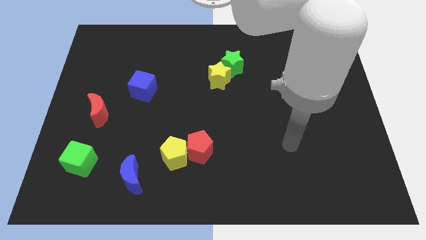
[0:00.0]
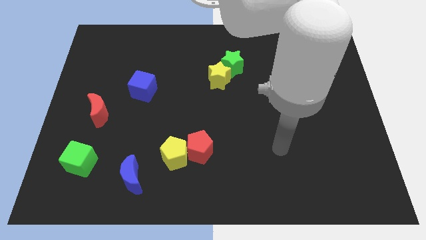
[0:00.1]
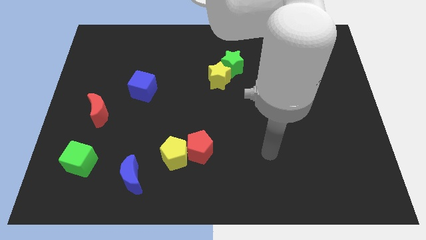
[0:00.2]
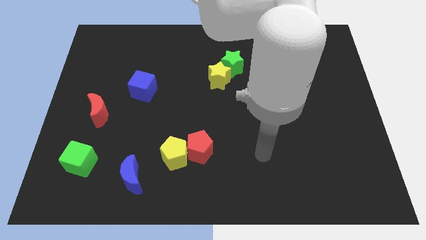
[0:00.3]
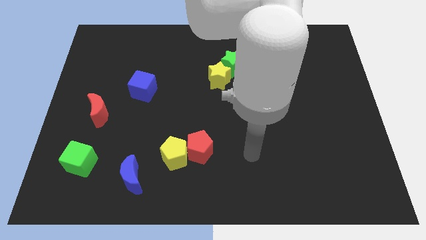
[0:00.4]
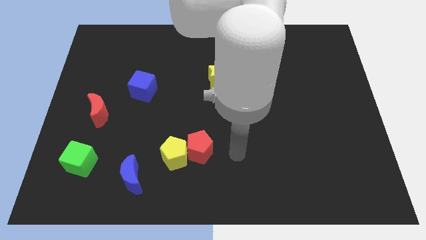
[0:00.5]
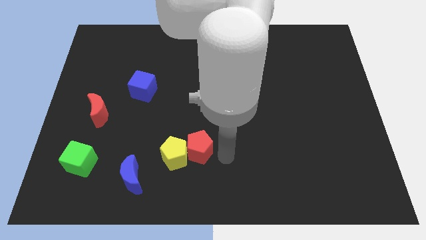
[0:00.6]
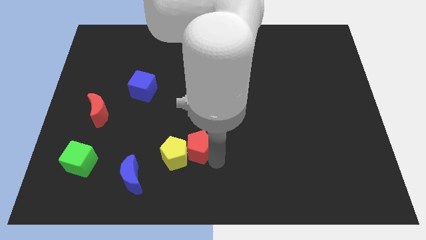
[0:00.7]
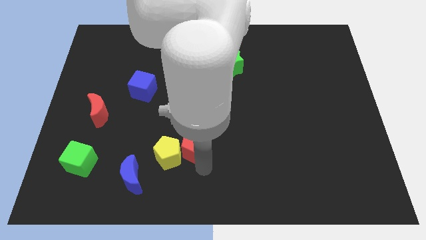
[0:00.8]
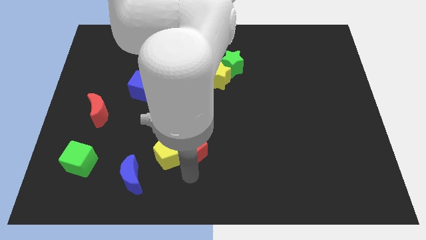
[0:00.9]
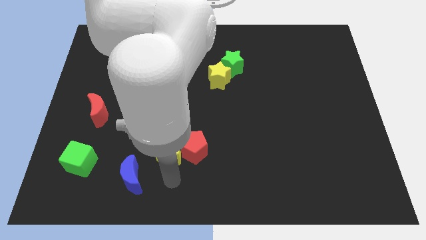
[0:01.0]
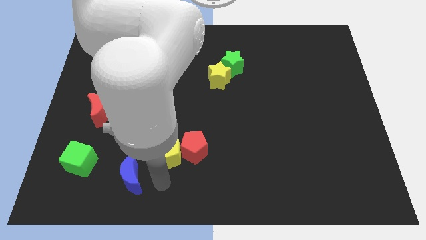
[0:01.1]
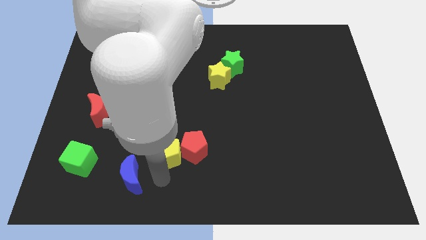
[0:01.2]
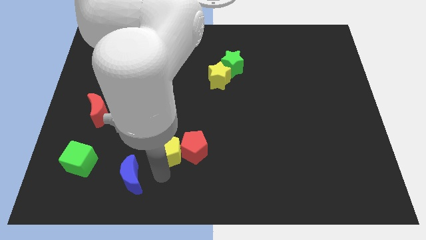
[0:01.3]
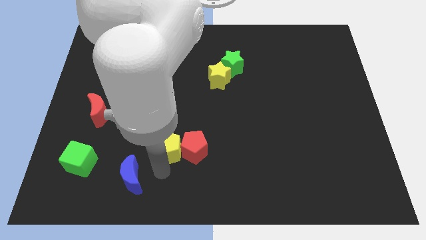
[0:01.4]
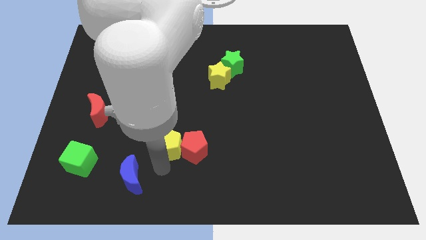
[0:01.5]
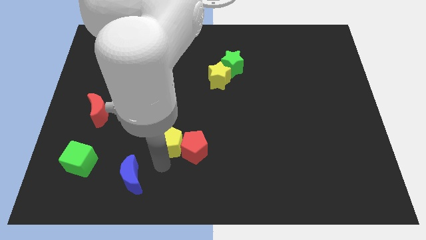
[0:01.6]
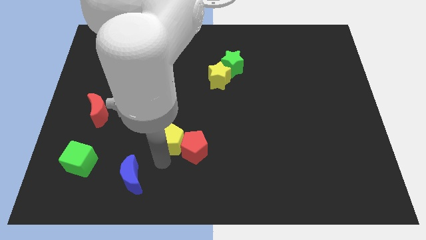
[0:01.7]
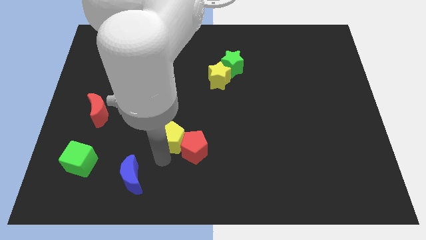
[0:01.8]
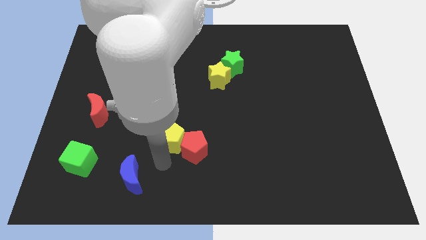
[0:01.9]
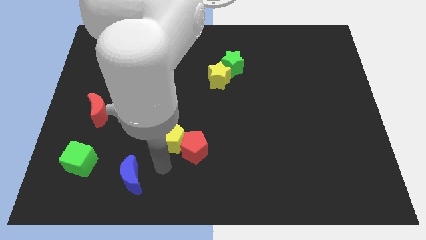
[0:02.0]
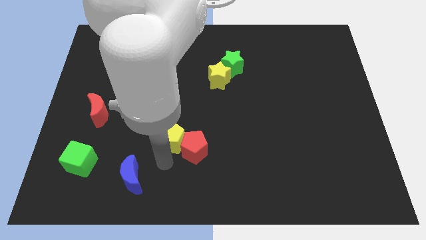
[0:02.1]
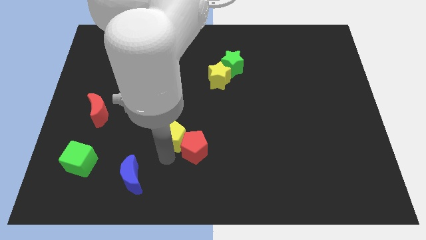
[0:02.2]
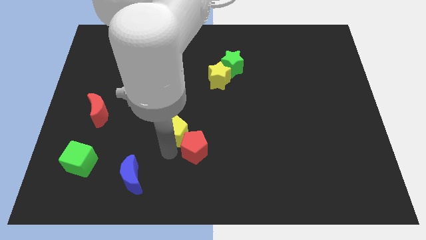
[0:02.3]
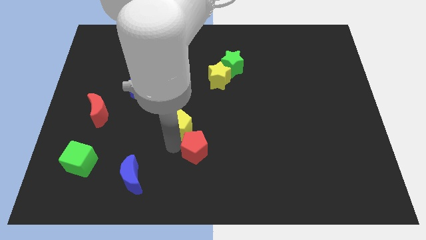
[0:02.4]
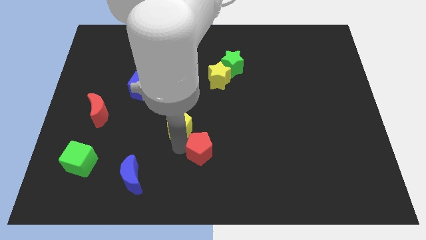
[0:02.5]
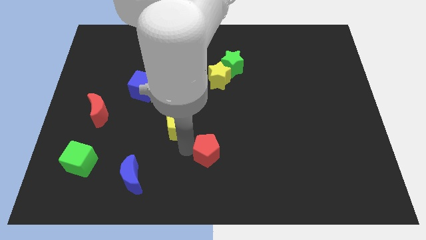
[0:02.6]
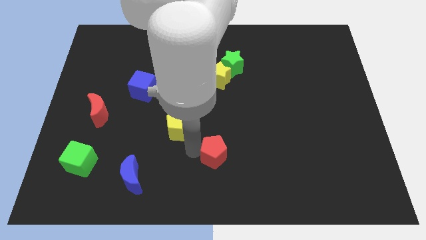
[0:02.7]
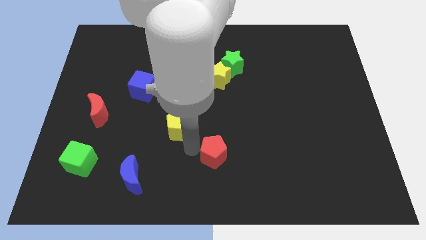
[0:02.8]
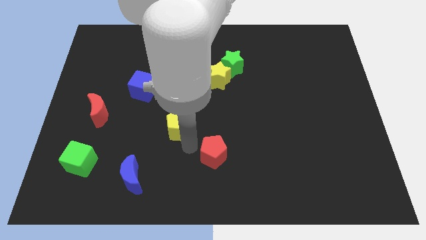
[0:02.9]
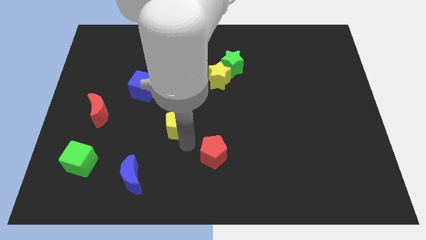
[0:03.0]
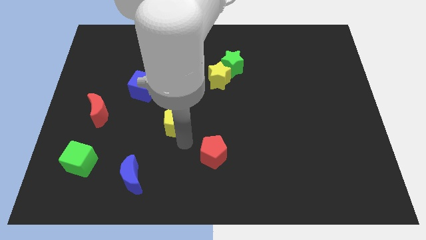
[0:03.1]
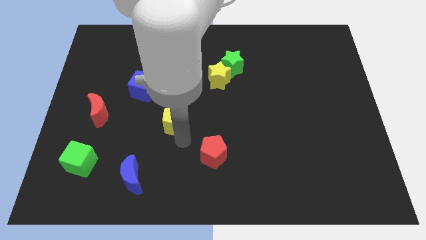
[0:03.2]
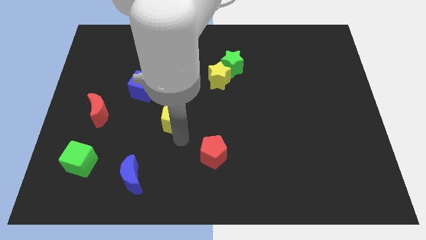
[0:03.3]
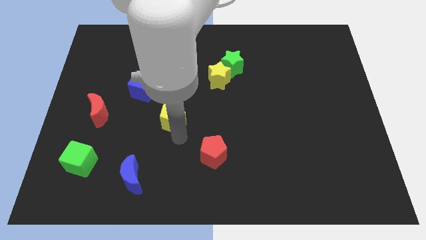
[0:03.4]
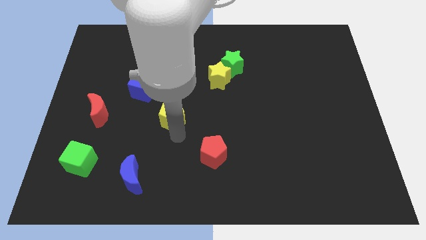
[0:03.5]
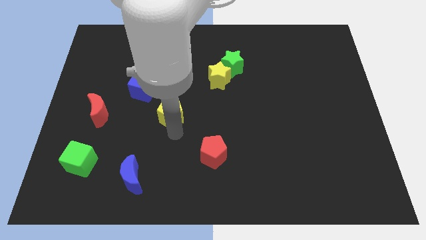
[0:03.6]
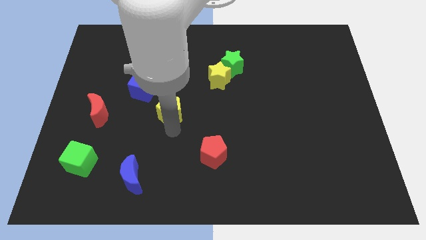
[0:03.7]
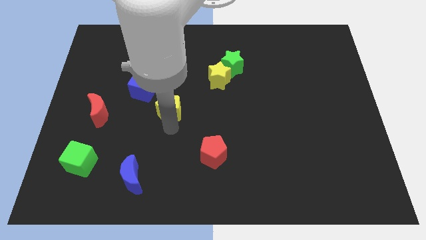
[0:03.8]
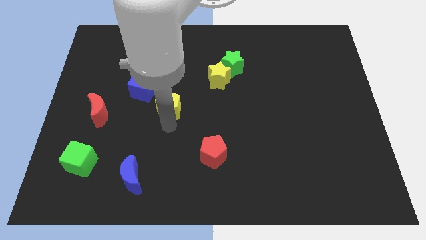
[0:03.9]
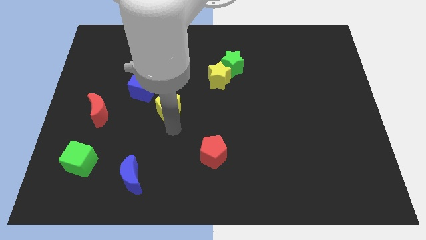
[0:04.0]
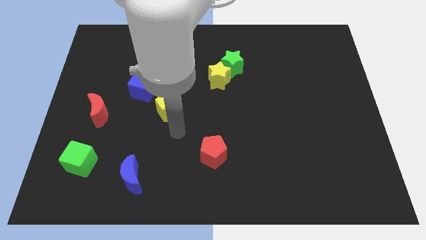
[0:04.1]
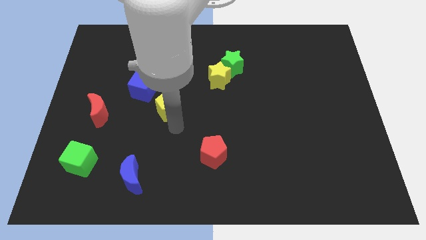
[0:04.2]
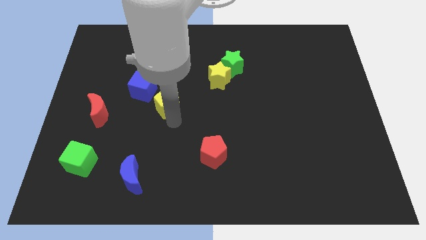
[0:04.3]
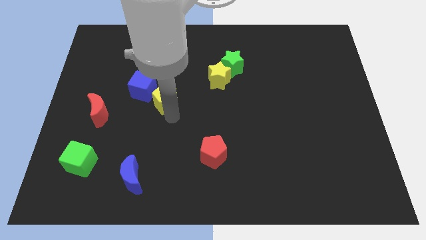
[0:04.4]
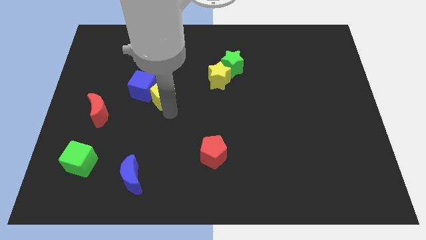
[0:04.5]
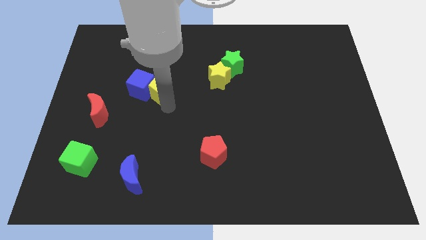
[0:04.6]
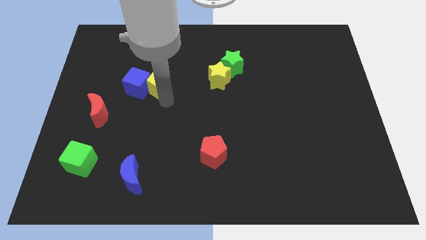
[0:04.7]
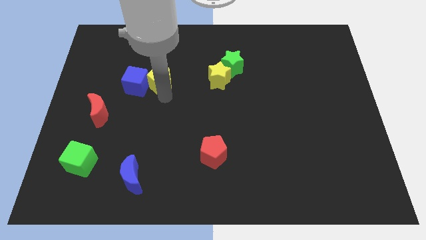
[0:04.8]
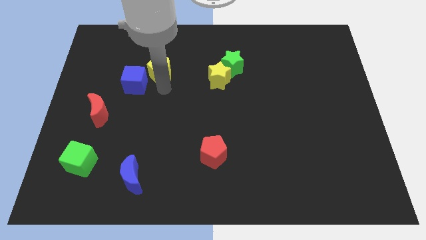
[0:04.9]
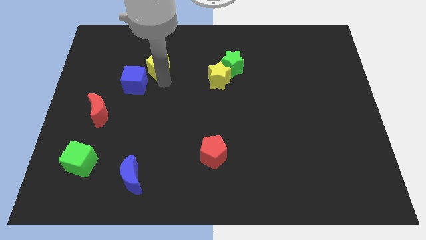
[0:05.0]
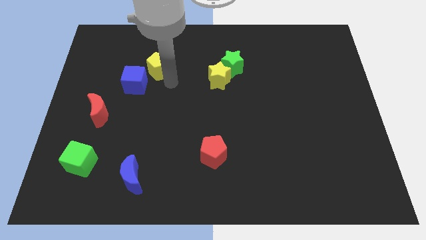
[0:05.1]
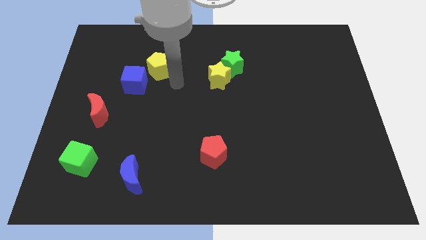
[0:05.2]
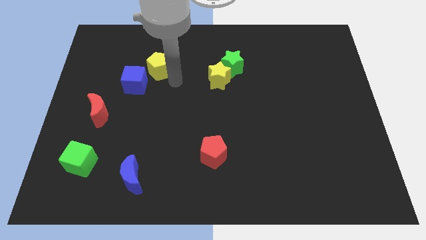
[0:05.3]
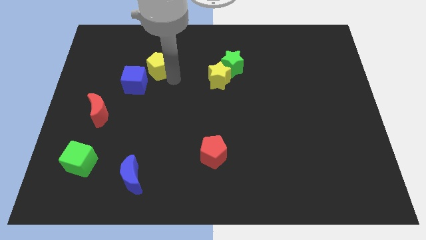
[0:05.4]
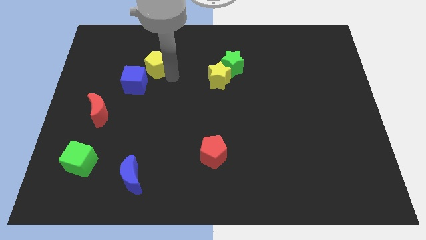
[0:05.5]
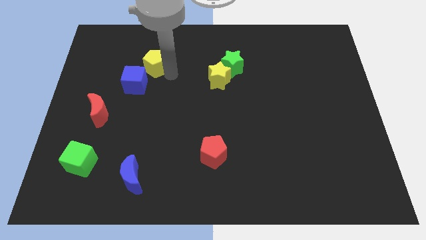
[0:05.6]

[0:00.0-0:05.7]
move the yellow pentagon to the top of the blue cube

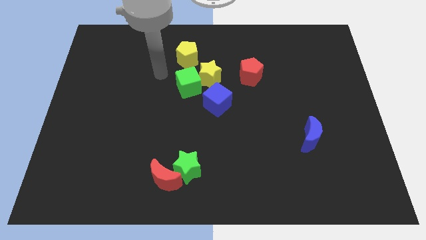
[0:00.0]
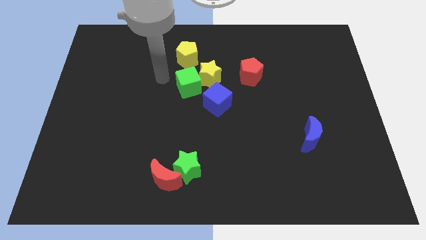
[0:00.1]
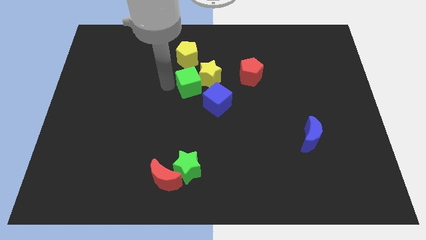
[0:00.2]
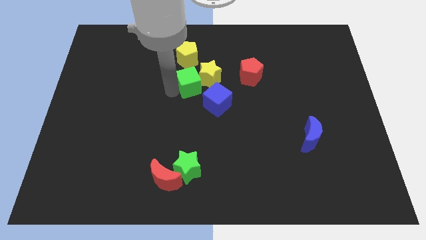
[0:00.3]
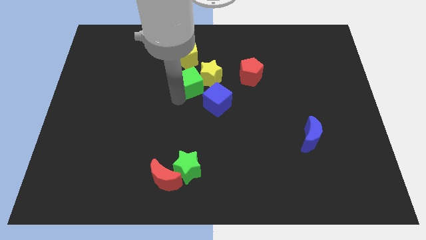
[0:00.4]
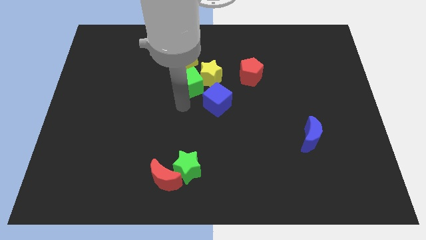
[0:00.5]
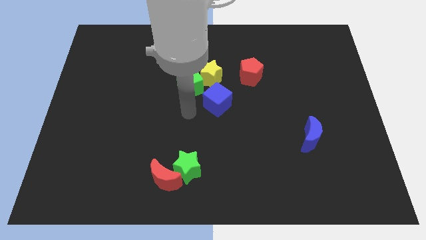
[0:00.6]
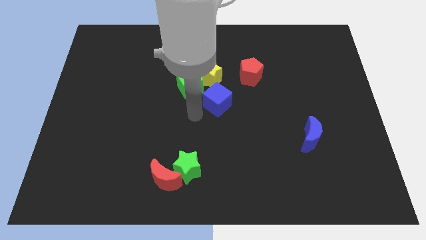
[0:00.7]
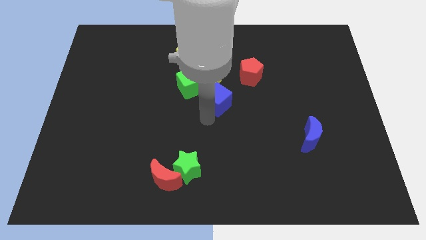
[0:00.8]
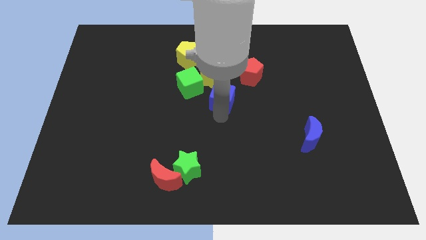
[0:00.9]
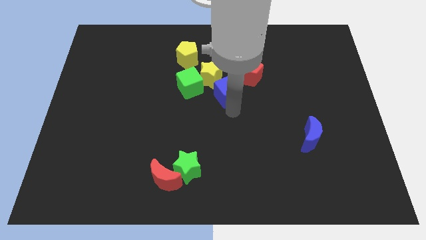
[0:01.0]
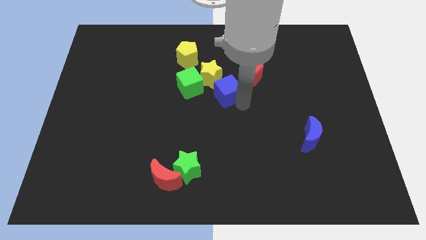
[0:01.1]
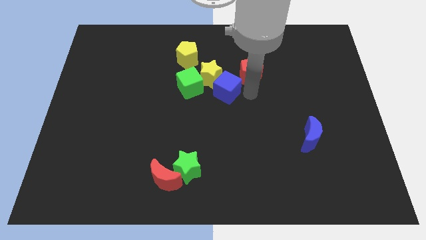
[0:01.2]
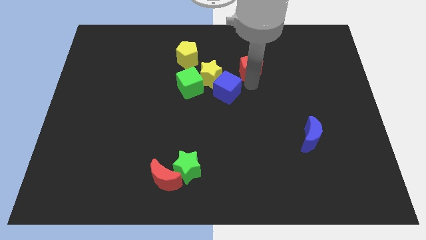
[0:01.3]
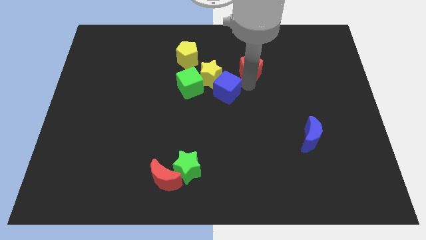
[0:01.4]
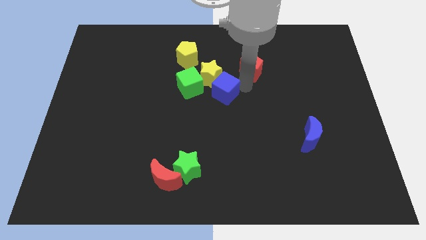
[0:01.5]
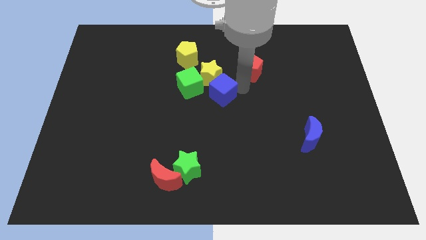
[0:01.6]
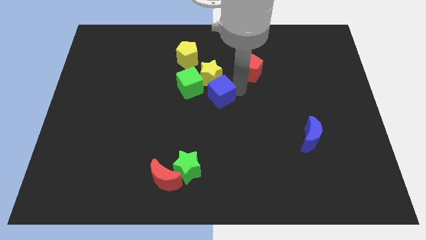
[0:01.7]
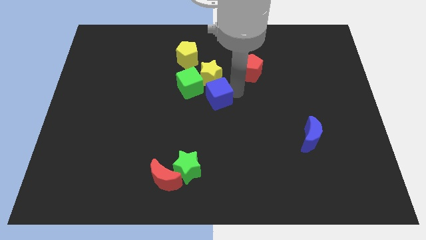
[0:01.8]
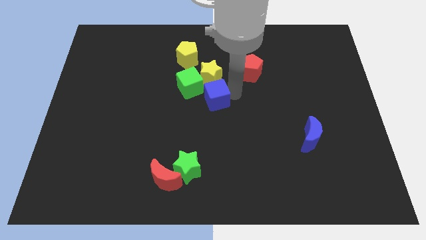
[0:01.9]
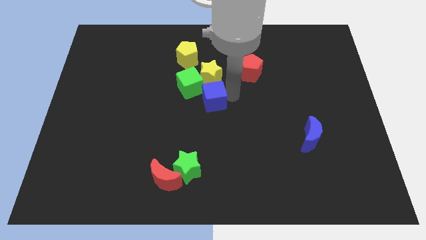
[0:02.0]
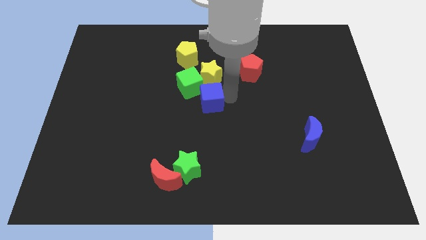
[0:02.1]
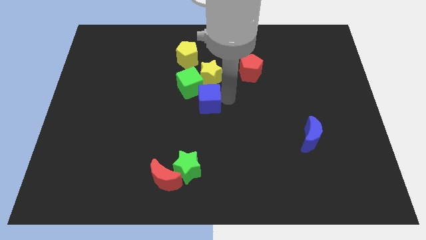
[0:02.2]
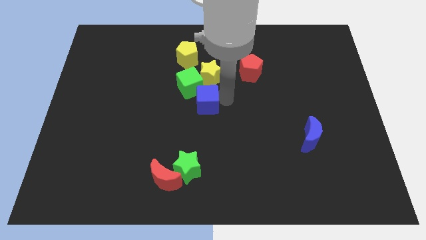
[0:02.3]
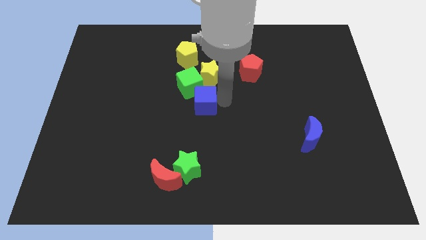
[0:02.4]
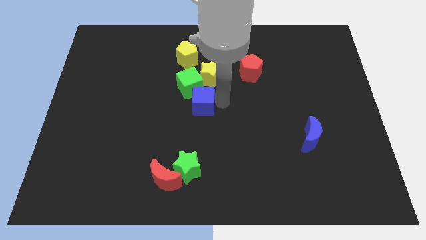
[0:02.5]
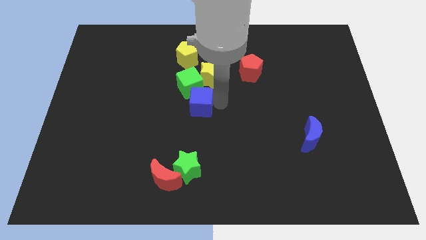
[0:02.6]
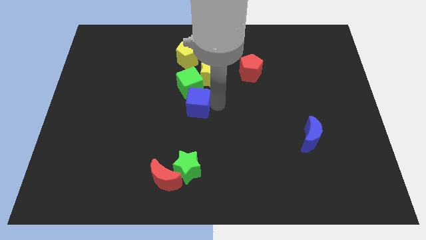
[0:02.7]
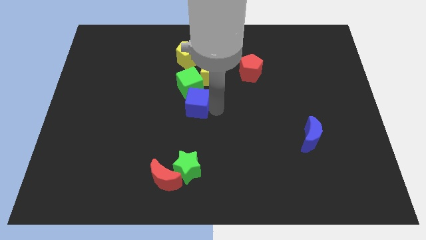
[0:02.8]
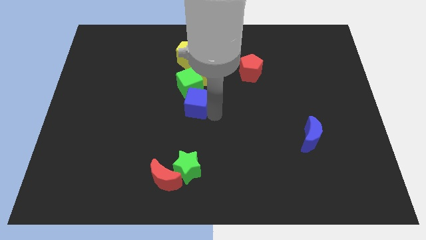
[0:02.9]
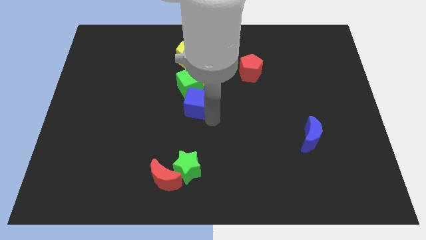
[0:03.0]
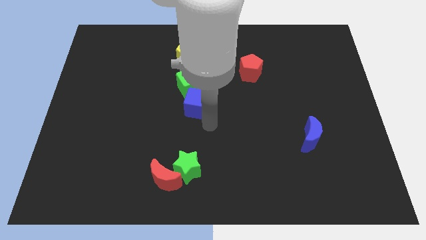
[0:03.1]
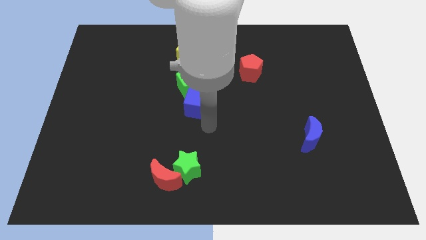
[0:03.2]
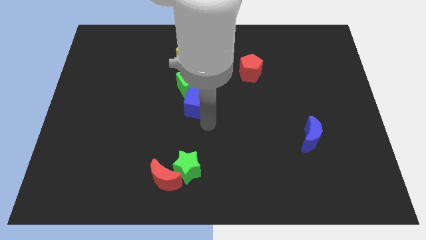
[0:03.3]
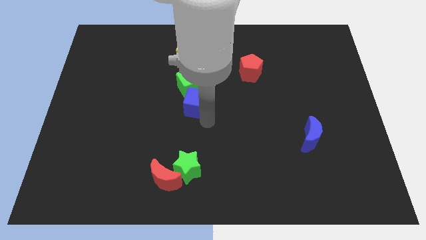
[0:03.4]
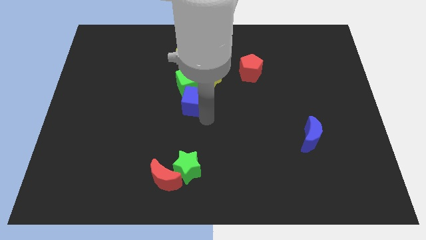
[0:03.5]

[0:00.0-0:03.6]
push the blue cube below the yellow pentagon
